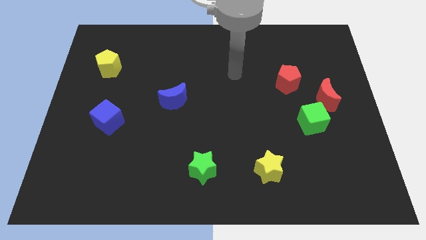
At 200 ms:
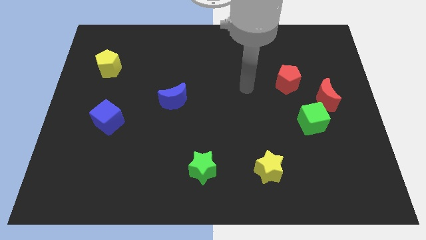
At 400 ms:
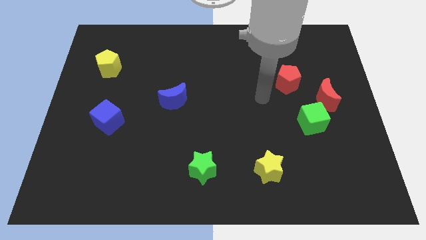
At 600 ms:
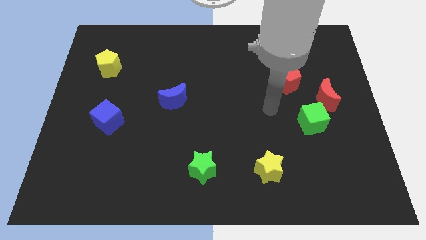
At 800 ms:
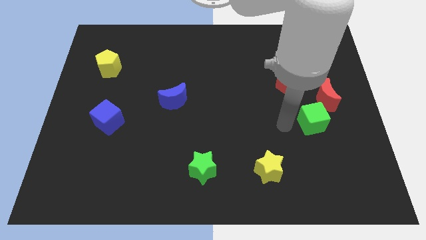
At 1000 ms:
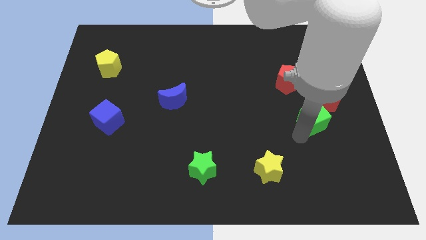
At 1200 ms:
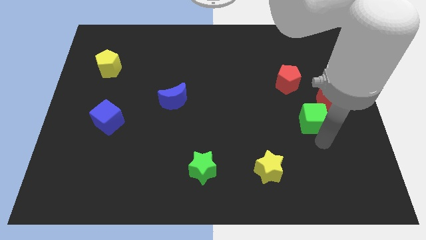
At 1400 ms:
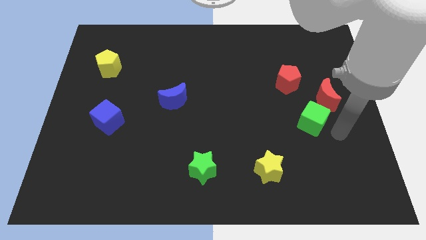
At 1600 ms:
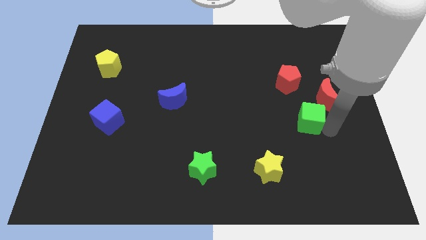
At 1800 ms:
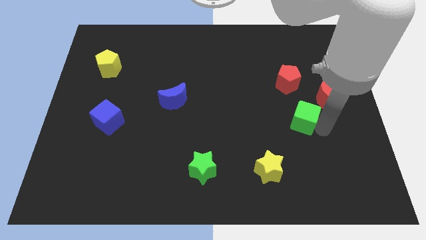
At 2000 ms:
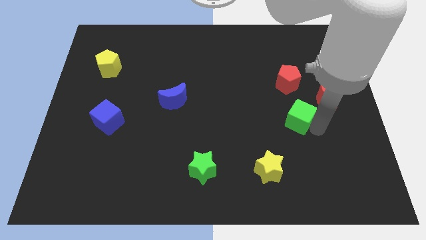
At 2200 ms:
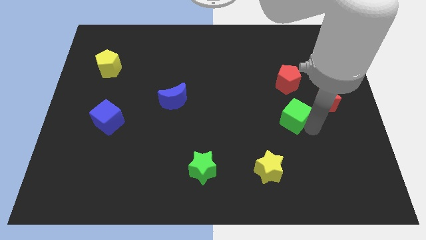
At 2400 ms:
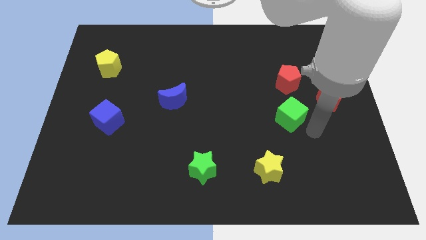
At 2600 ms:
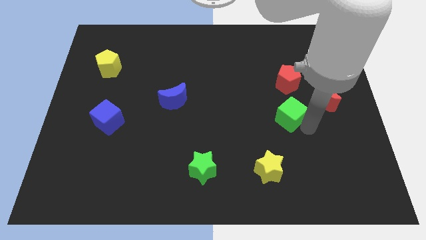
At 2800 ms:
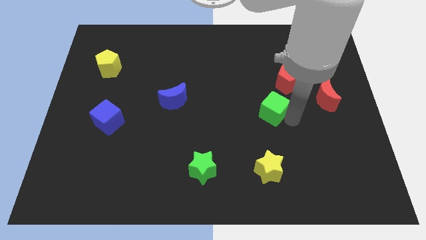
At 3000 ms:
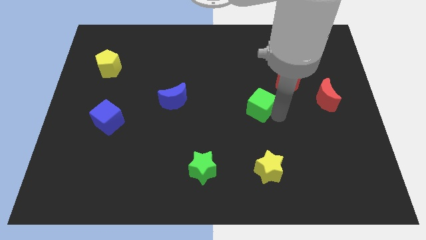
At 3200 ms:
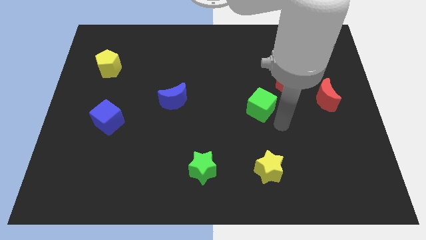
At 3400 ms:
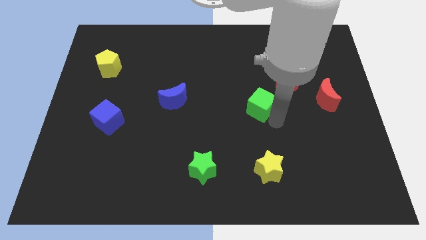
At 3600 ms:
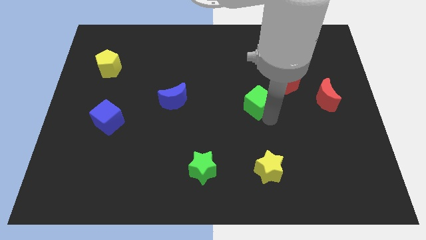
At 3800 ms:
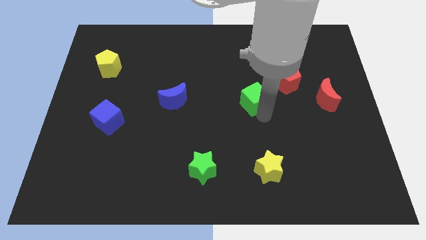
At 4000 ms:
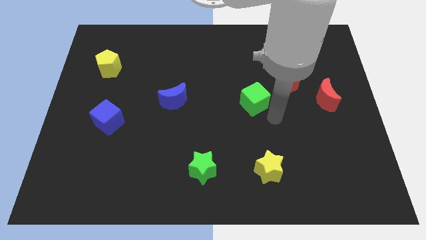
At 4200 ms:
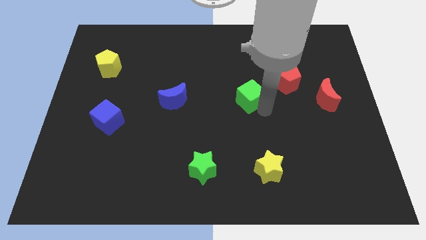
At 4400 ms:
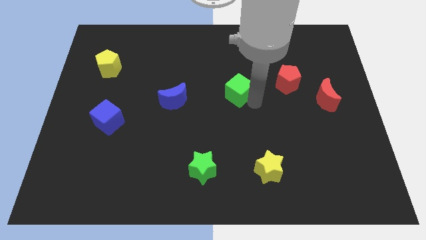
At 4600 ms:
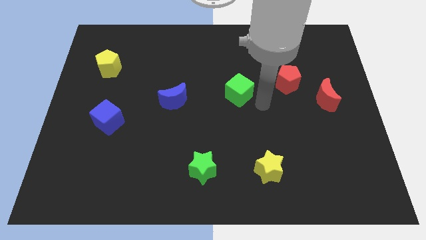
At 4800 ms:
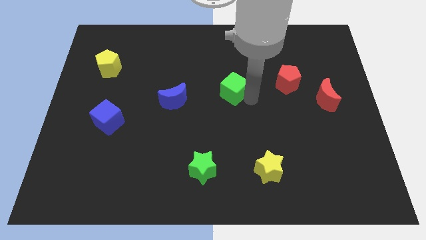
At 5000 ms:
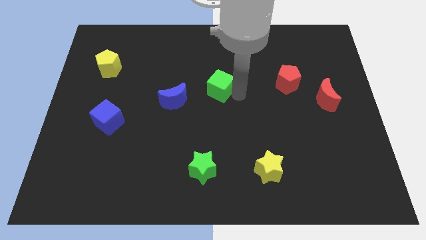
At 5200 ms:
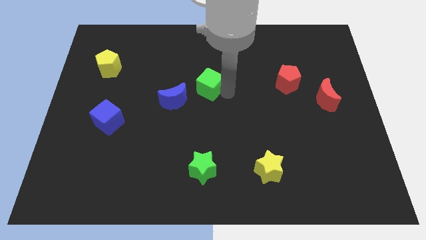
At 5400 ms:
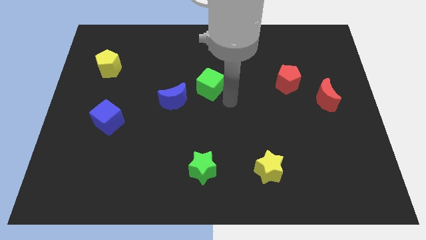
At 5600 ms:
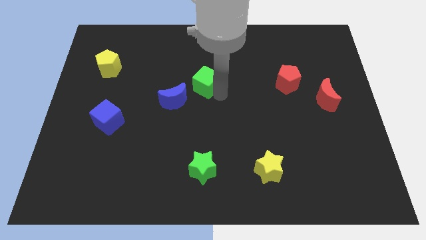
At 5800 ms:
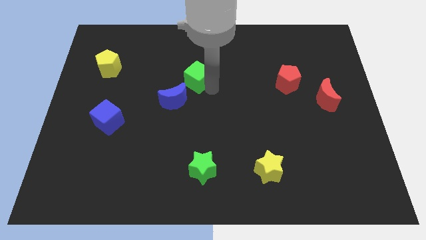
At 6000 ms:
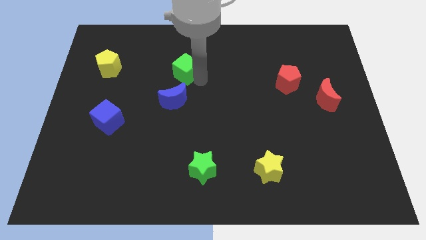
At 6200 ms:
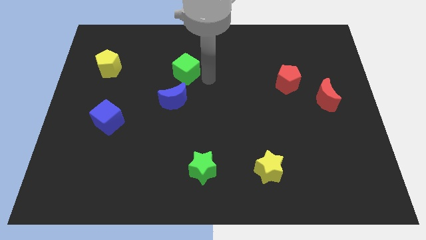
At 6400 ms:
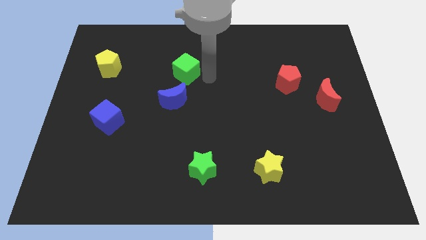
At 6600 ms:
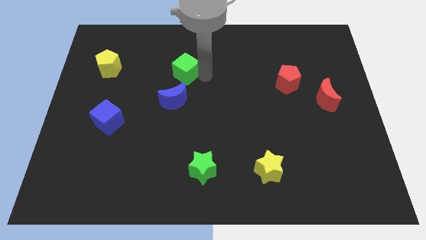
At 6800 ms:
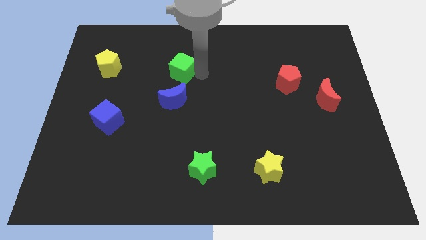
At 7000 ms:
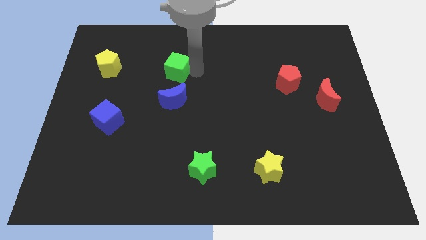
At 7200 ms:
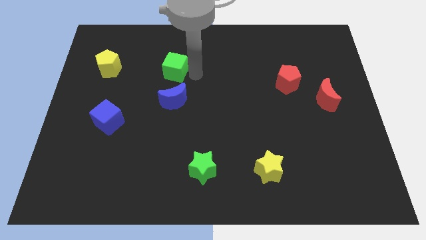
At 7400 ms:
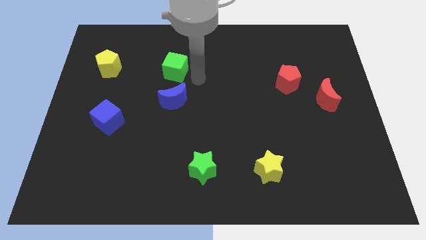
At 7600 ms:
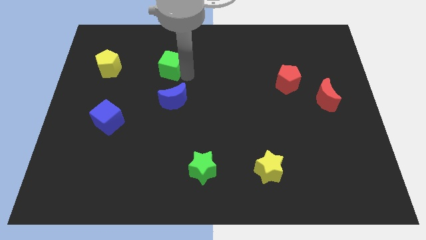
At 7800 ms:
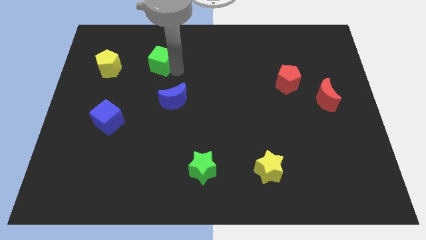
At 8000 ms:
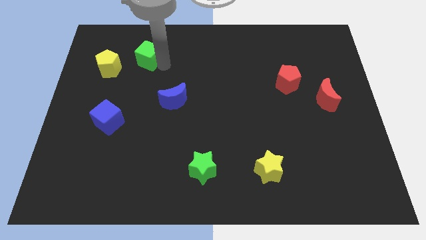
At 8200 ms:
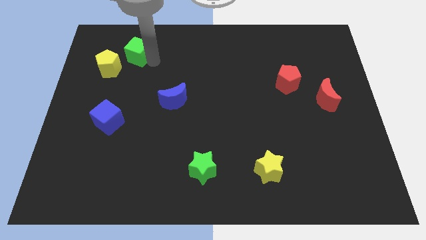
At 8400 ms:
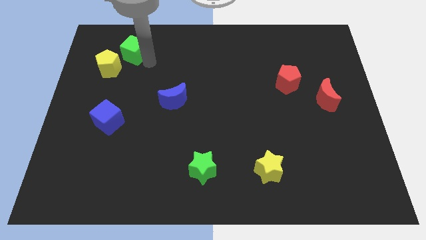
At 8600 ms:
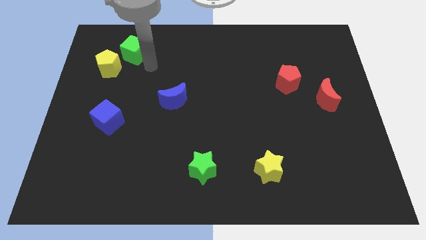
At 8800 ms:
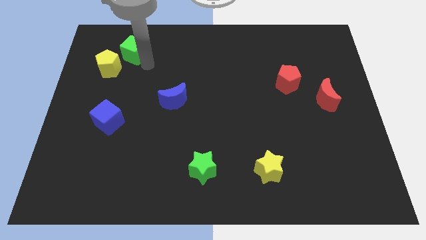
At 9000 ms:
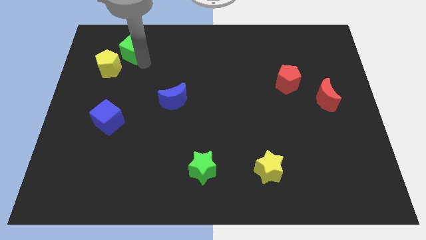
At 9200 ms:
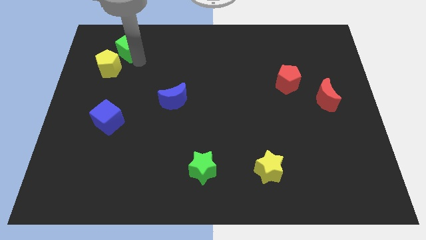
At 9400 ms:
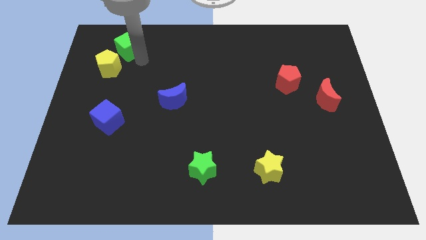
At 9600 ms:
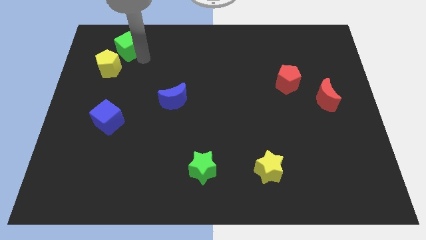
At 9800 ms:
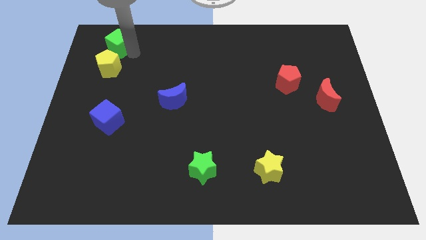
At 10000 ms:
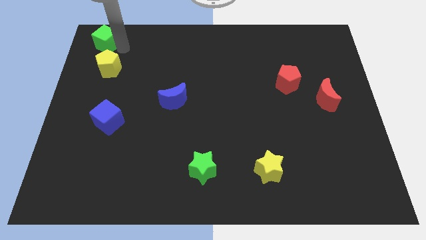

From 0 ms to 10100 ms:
put the green cube to the top left corner

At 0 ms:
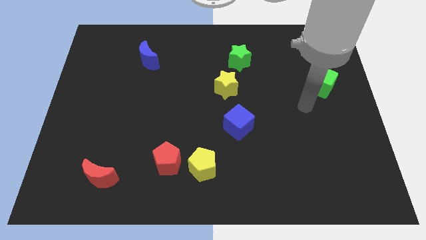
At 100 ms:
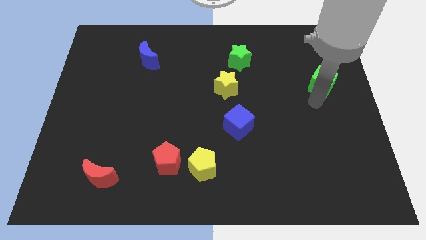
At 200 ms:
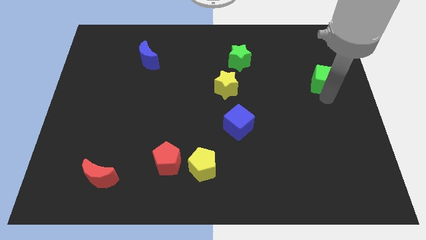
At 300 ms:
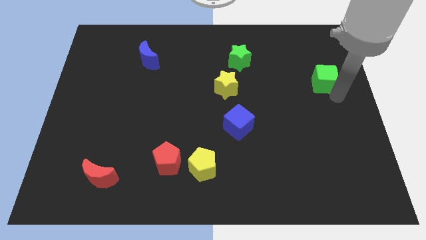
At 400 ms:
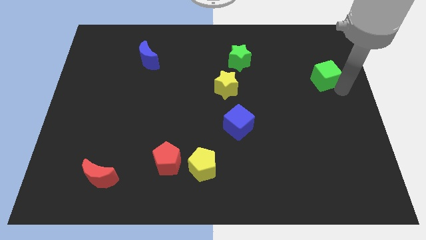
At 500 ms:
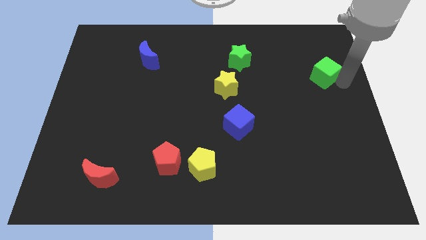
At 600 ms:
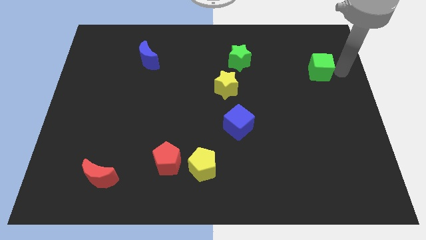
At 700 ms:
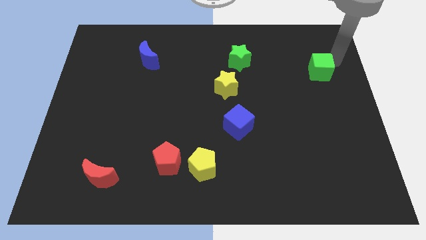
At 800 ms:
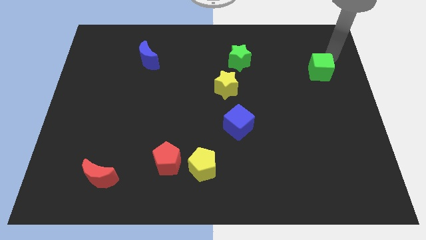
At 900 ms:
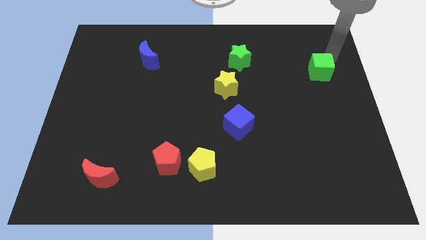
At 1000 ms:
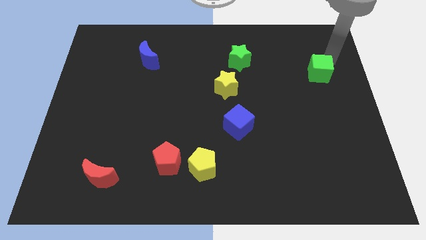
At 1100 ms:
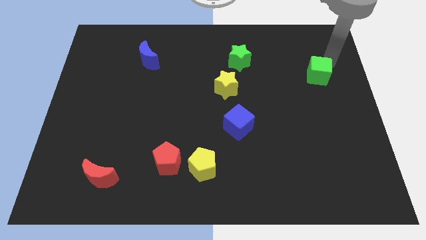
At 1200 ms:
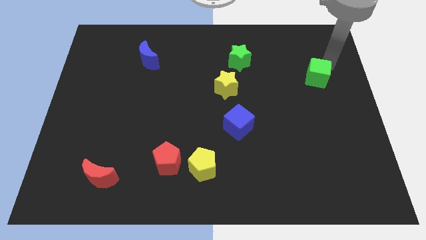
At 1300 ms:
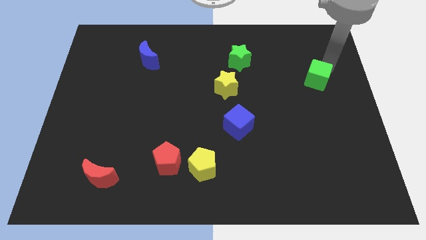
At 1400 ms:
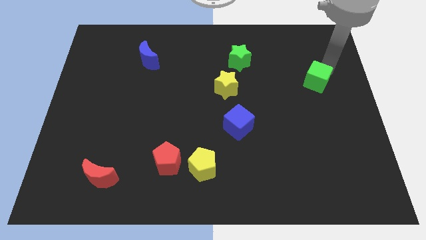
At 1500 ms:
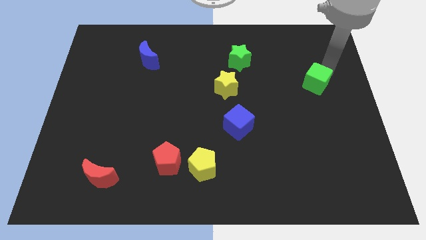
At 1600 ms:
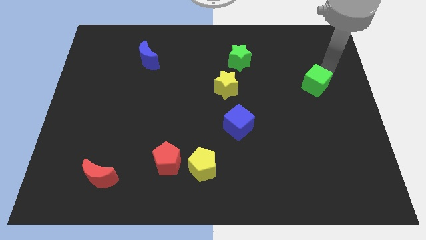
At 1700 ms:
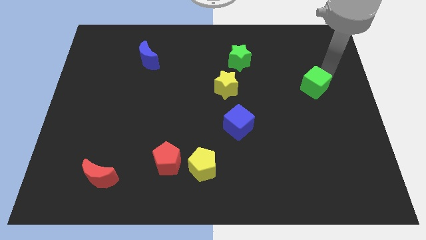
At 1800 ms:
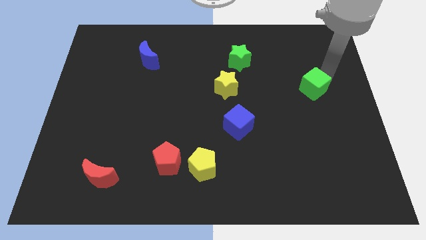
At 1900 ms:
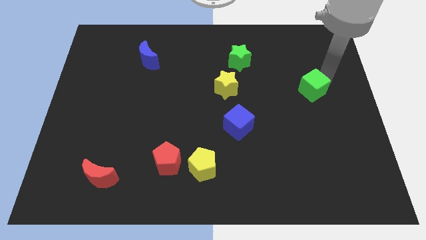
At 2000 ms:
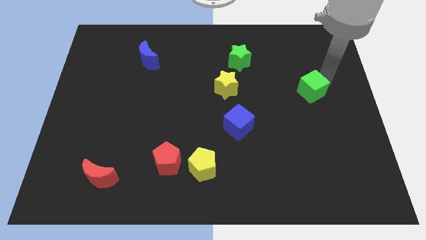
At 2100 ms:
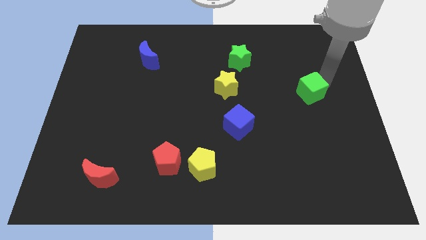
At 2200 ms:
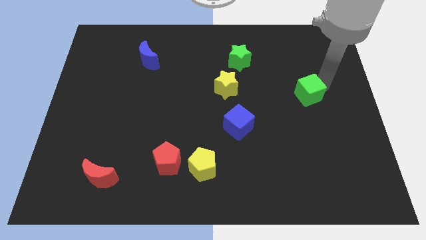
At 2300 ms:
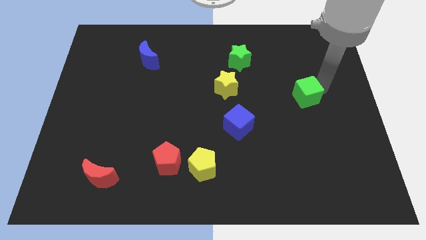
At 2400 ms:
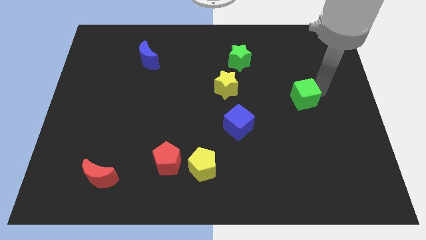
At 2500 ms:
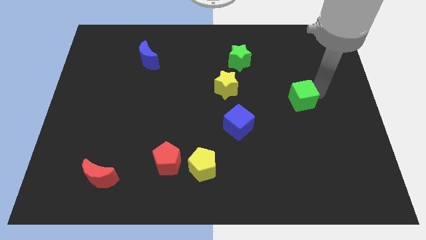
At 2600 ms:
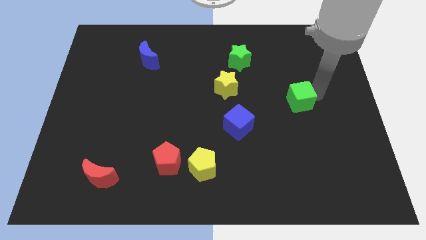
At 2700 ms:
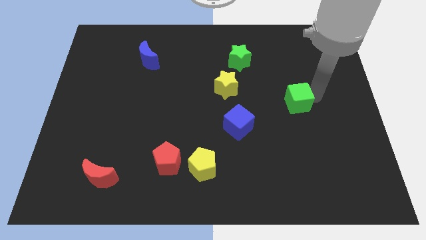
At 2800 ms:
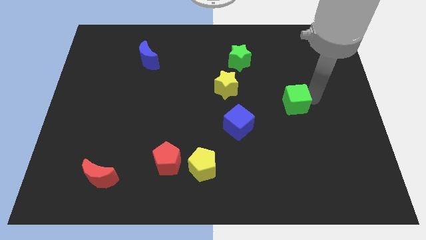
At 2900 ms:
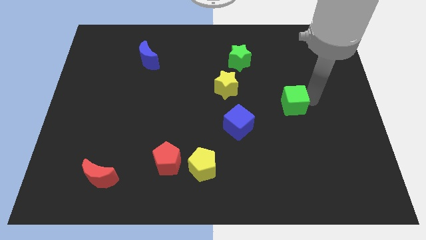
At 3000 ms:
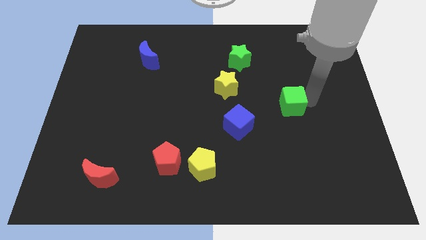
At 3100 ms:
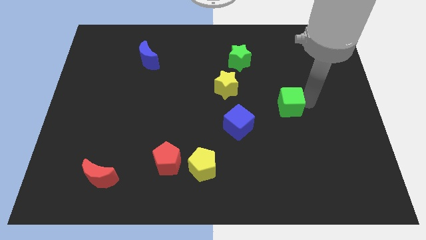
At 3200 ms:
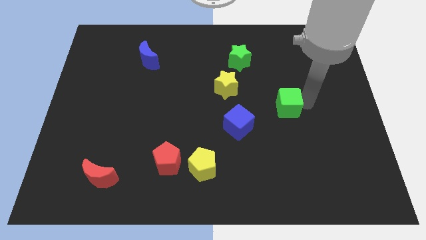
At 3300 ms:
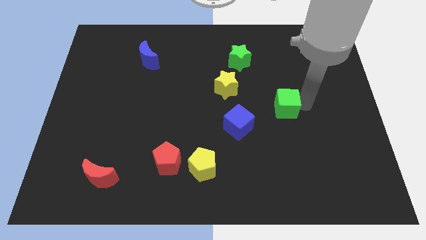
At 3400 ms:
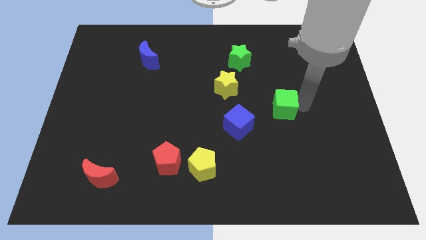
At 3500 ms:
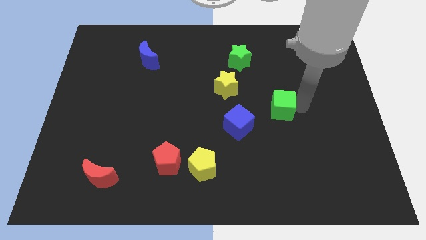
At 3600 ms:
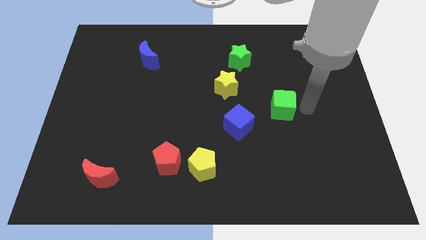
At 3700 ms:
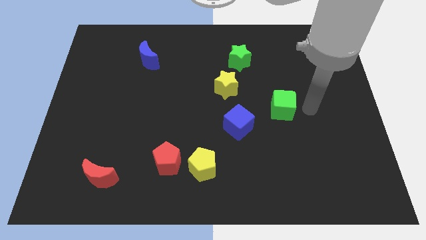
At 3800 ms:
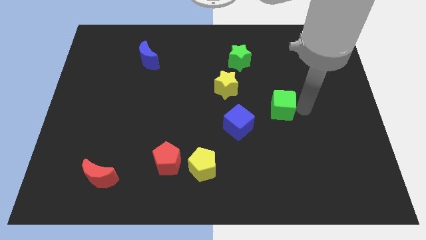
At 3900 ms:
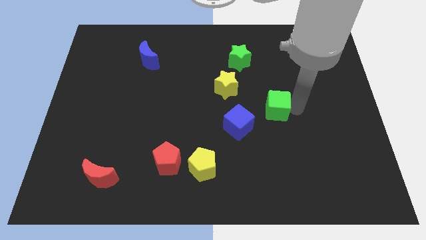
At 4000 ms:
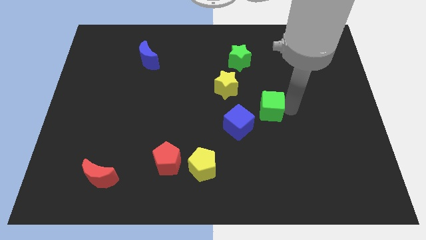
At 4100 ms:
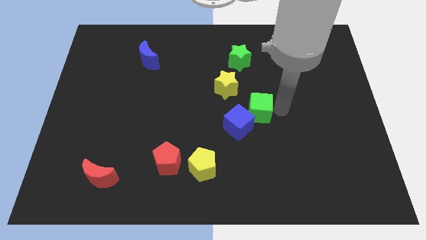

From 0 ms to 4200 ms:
put the green cube to the center of the board
